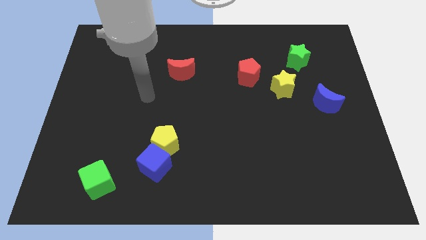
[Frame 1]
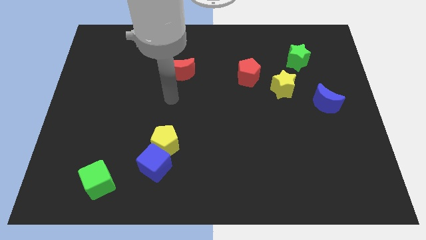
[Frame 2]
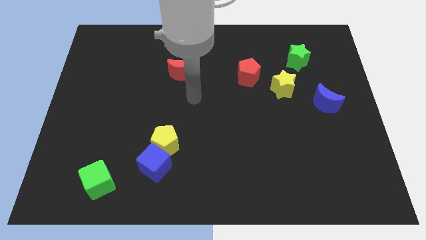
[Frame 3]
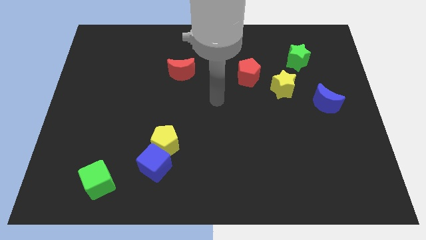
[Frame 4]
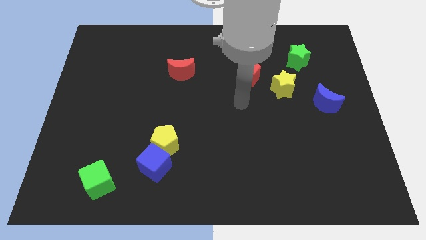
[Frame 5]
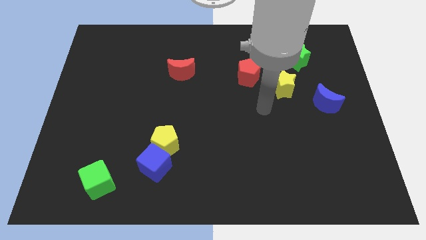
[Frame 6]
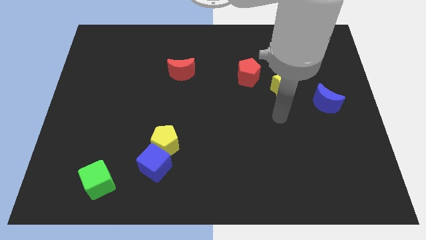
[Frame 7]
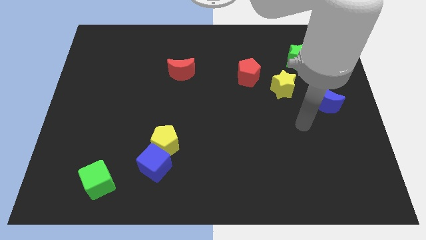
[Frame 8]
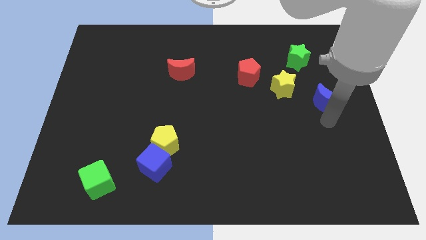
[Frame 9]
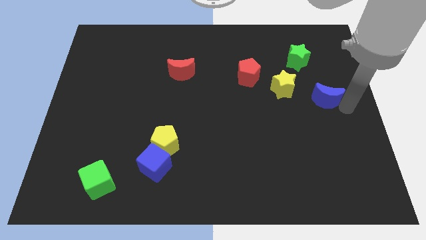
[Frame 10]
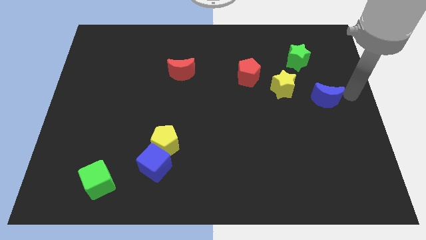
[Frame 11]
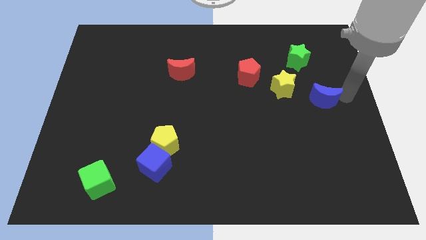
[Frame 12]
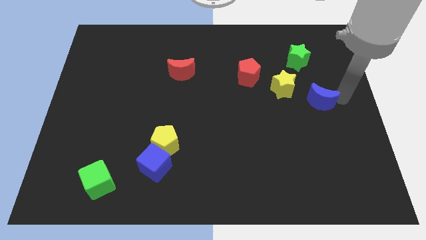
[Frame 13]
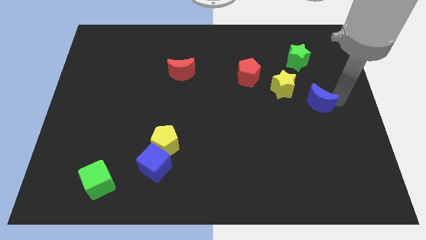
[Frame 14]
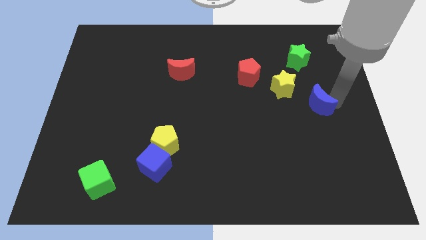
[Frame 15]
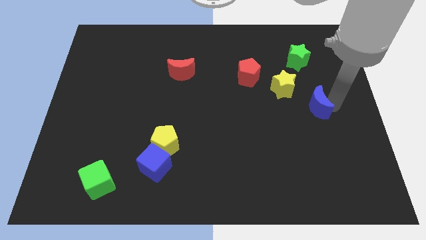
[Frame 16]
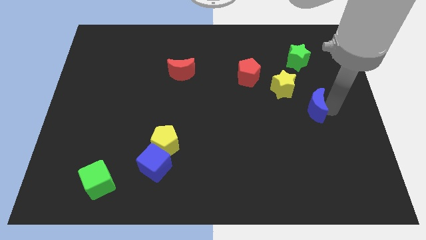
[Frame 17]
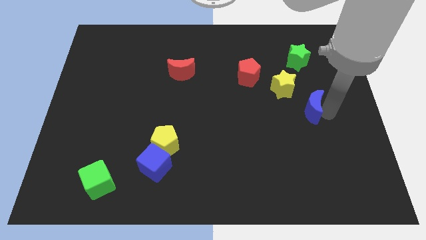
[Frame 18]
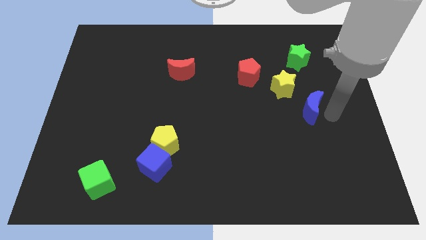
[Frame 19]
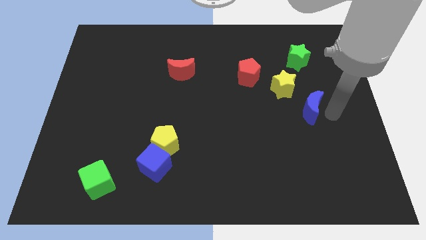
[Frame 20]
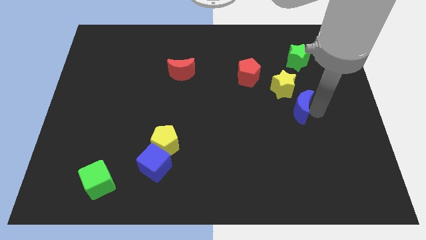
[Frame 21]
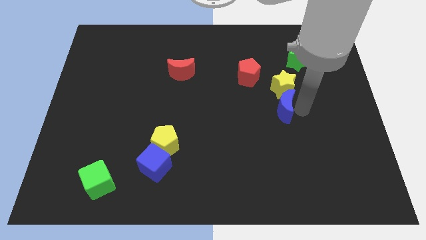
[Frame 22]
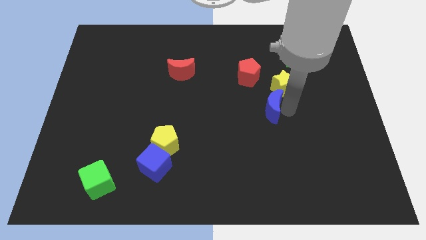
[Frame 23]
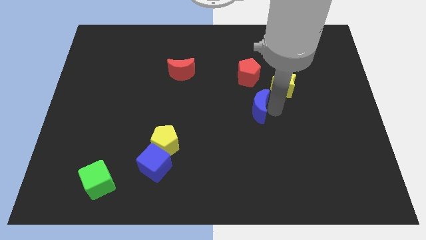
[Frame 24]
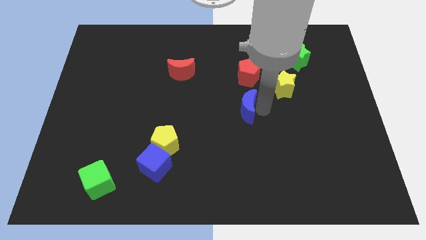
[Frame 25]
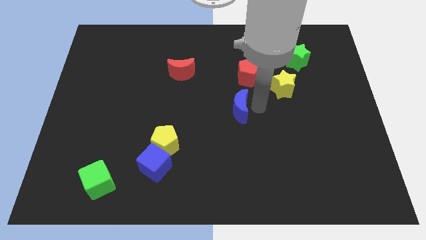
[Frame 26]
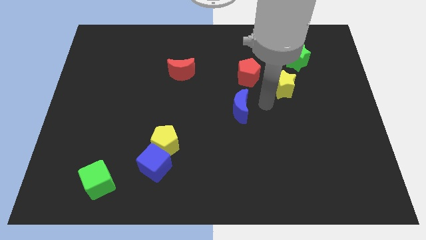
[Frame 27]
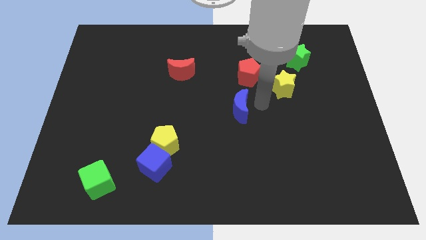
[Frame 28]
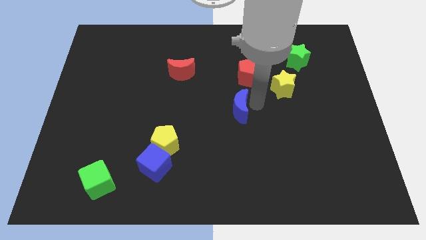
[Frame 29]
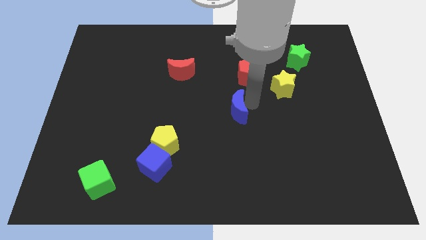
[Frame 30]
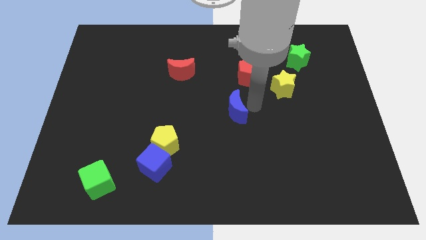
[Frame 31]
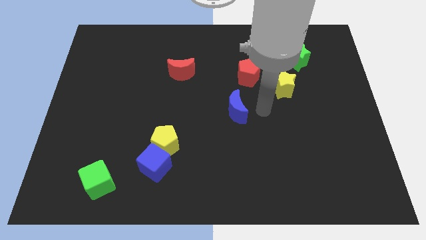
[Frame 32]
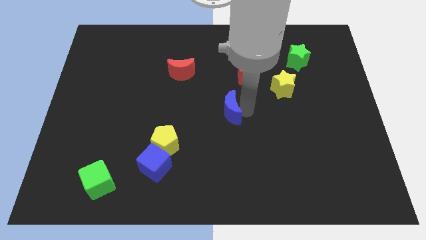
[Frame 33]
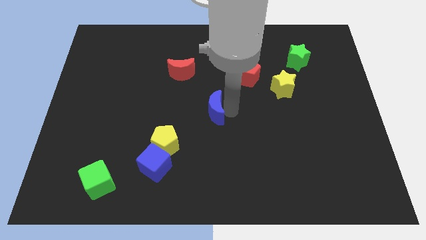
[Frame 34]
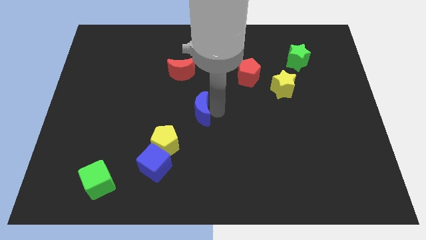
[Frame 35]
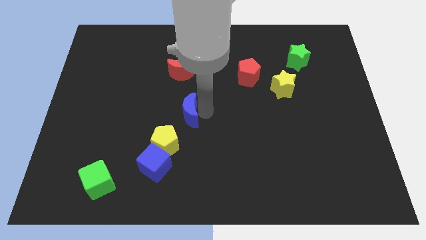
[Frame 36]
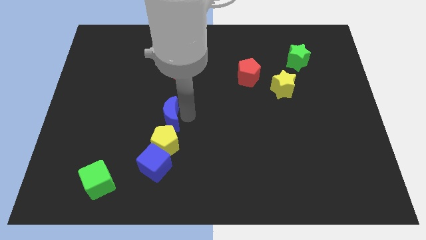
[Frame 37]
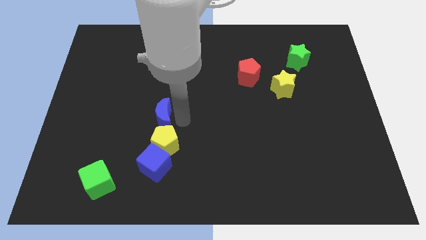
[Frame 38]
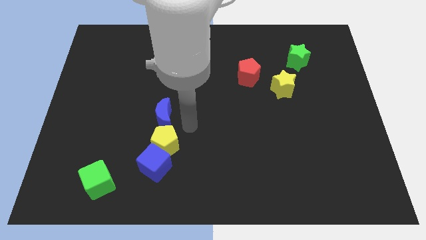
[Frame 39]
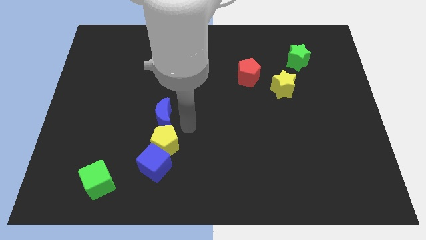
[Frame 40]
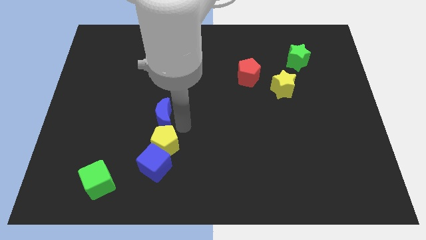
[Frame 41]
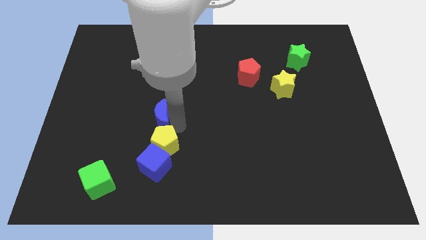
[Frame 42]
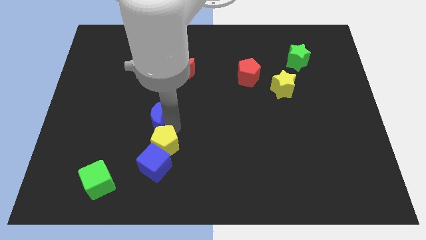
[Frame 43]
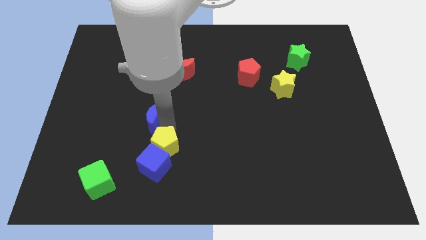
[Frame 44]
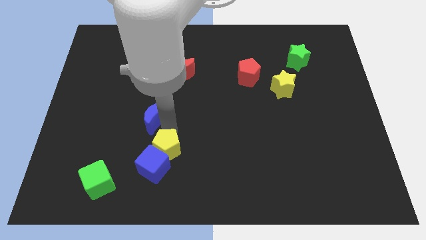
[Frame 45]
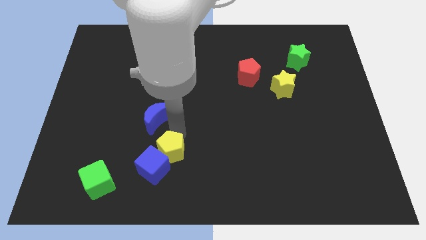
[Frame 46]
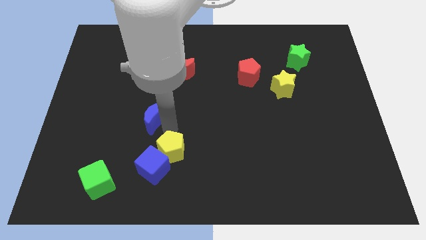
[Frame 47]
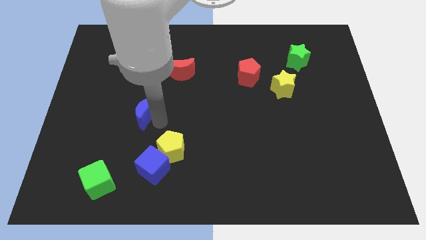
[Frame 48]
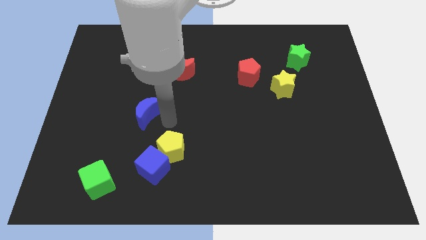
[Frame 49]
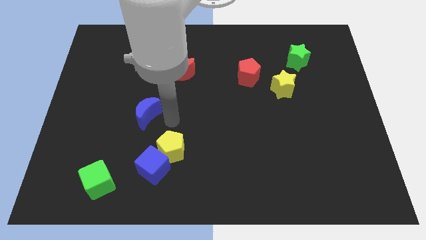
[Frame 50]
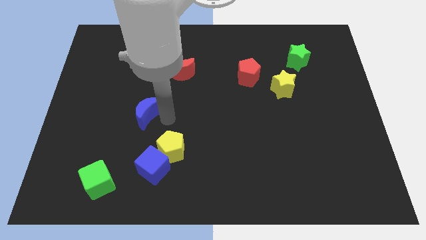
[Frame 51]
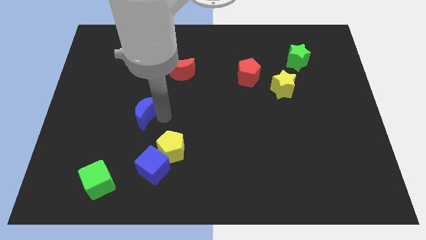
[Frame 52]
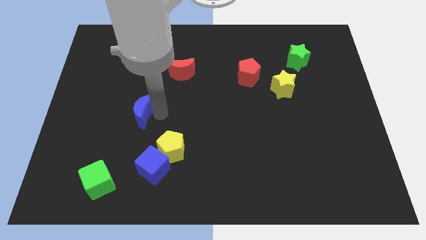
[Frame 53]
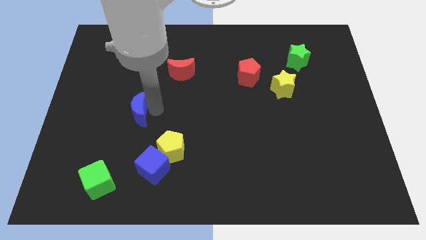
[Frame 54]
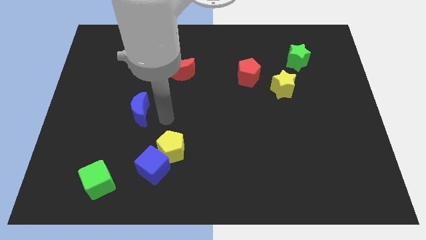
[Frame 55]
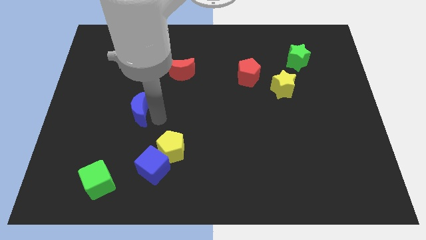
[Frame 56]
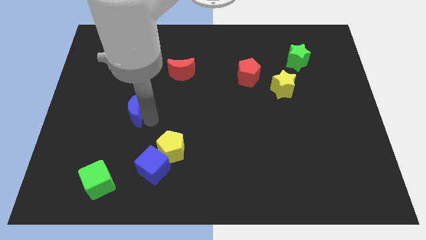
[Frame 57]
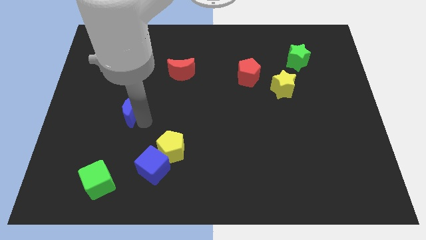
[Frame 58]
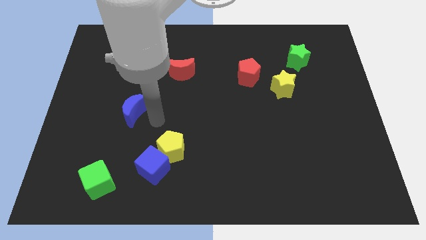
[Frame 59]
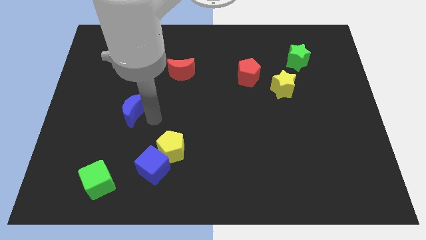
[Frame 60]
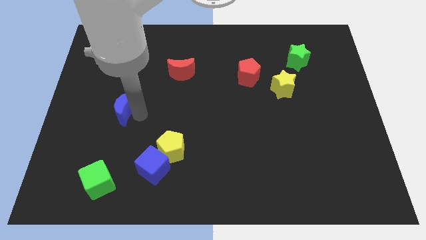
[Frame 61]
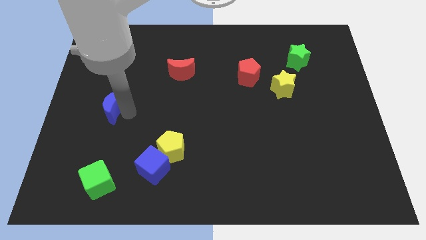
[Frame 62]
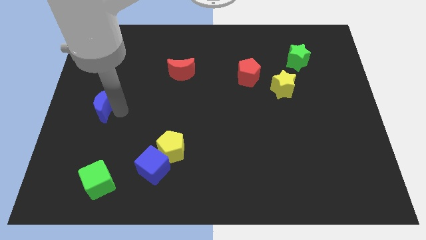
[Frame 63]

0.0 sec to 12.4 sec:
slide the blue moon to the left side of the board
